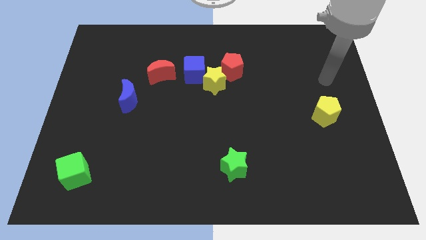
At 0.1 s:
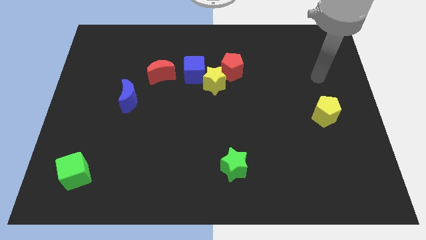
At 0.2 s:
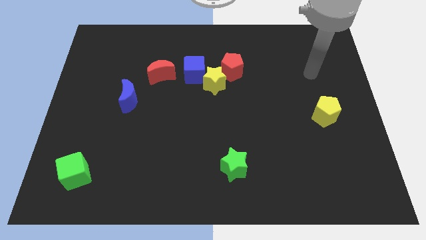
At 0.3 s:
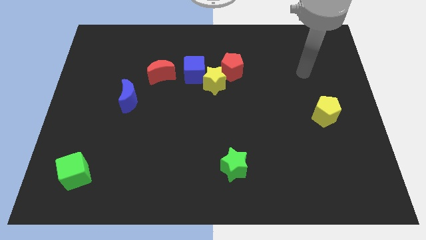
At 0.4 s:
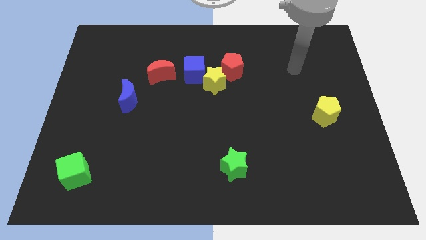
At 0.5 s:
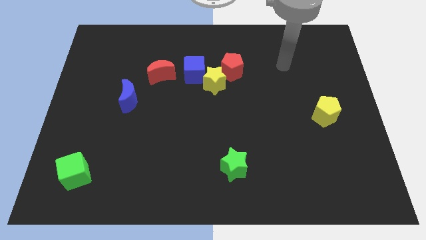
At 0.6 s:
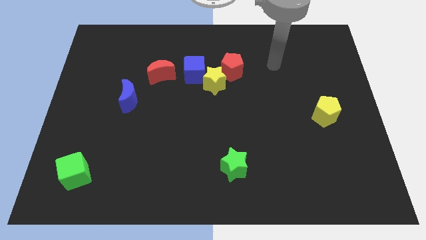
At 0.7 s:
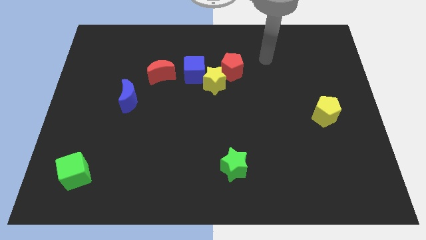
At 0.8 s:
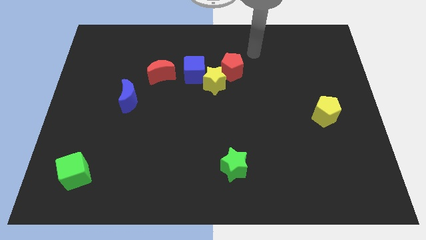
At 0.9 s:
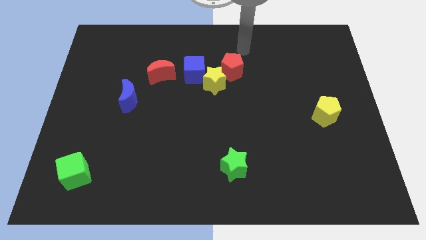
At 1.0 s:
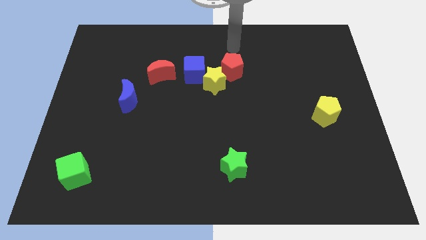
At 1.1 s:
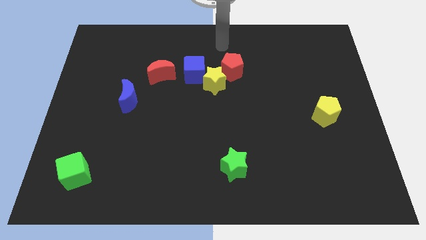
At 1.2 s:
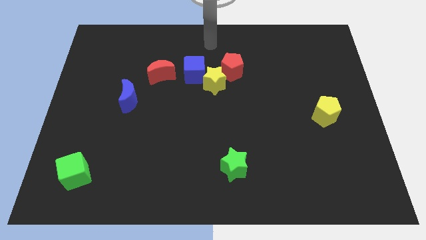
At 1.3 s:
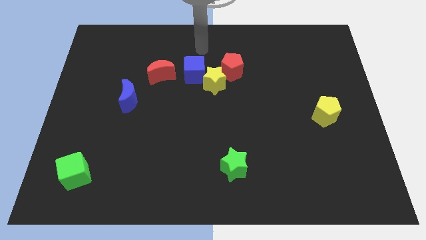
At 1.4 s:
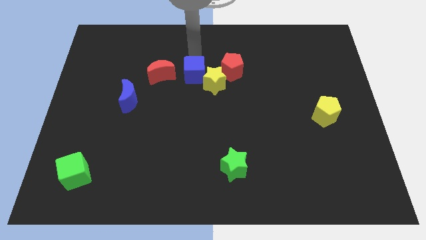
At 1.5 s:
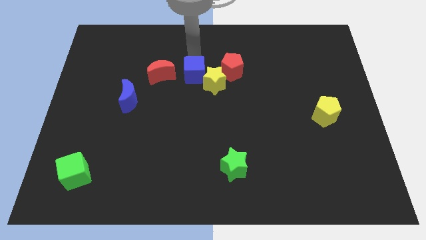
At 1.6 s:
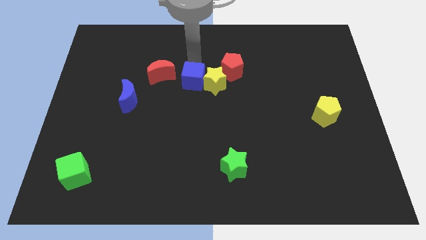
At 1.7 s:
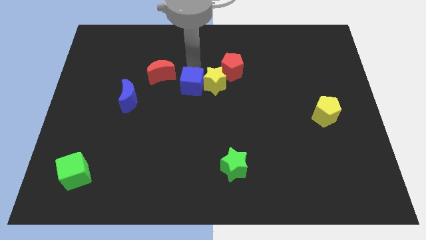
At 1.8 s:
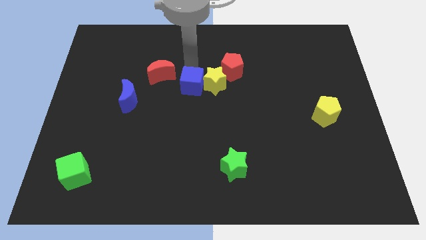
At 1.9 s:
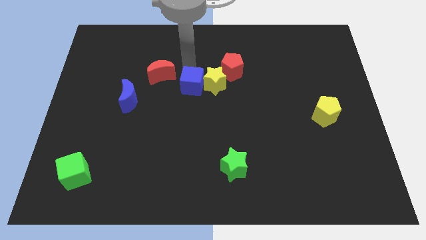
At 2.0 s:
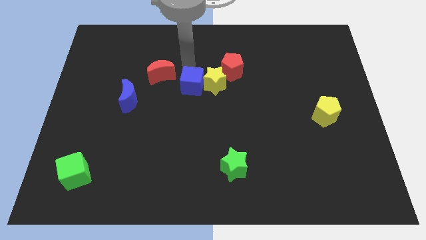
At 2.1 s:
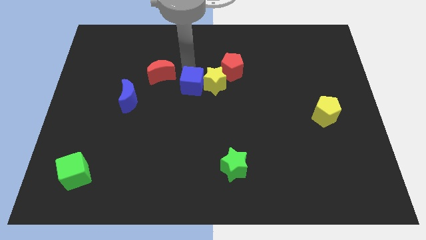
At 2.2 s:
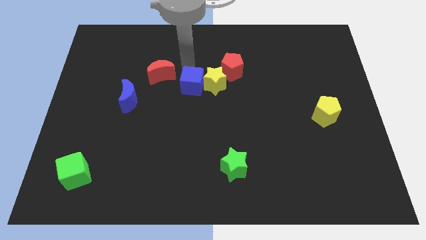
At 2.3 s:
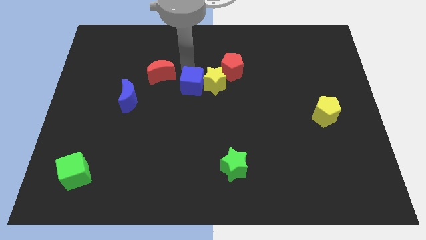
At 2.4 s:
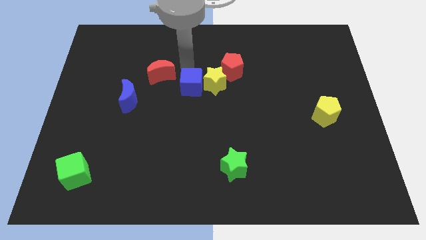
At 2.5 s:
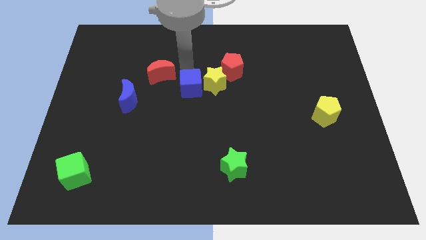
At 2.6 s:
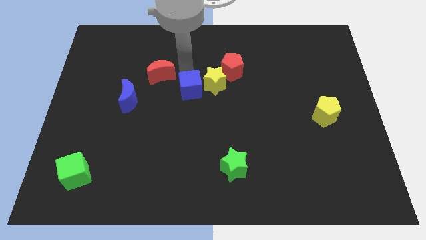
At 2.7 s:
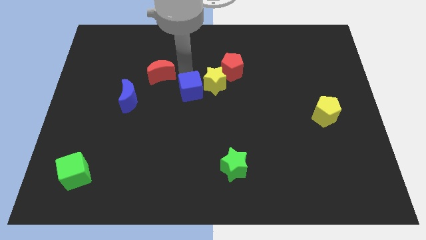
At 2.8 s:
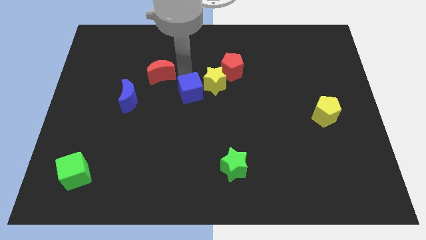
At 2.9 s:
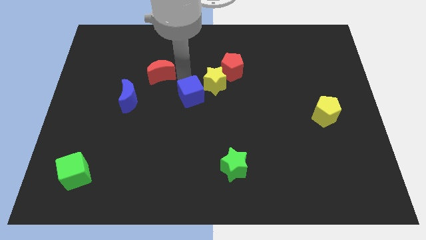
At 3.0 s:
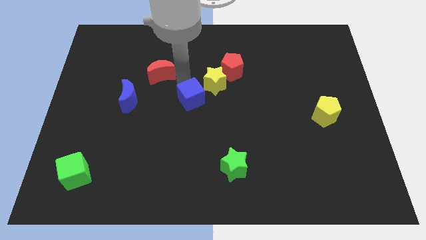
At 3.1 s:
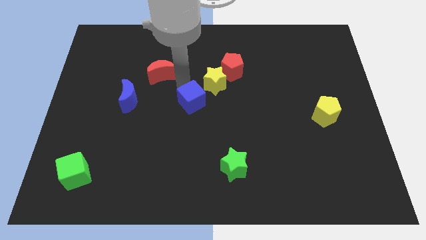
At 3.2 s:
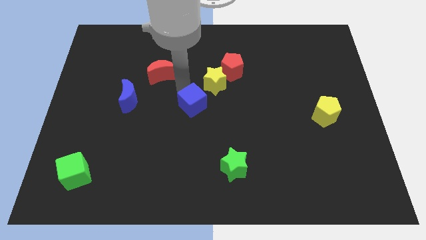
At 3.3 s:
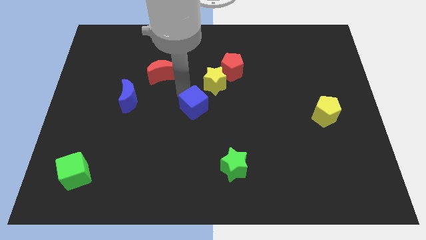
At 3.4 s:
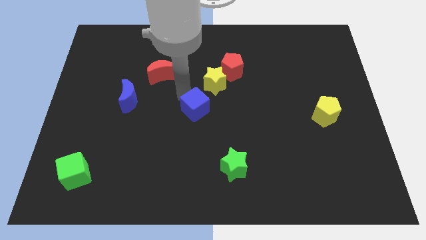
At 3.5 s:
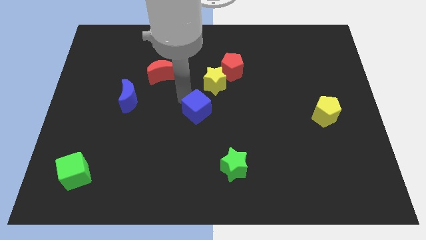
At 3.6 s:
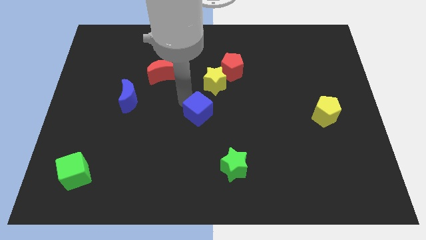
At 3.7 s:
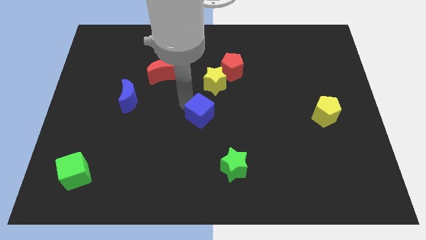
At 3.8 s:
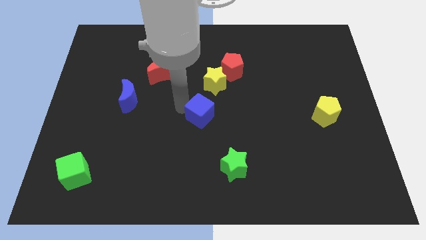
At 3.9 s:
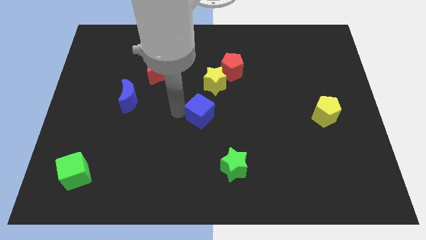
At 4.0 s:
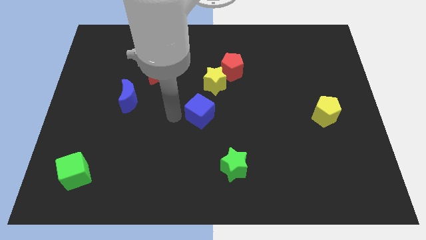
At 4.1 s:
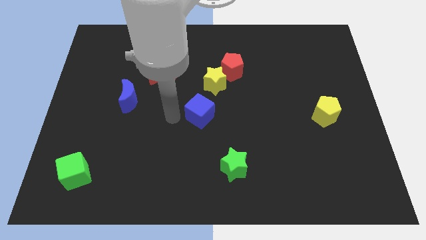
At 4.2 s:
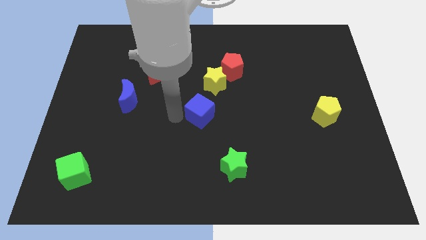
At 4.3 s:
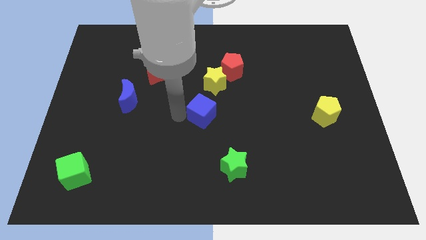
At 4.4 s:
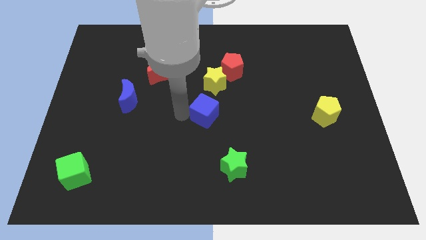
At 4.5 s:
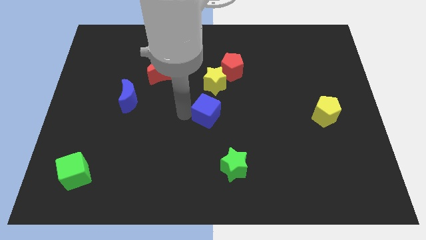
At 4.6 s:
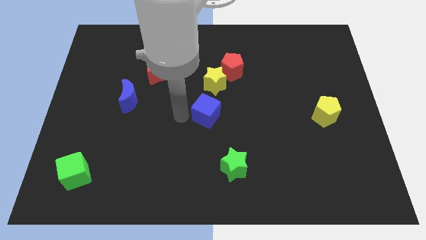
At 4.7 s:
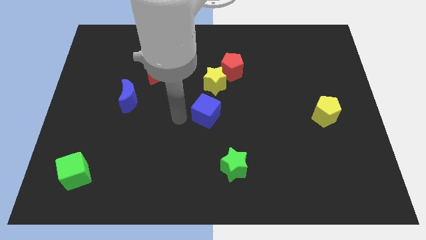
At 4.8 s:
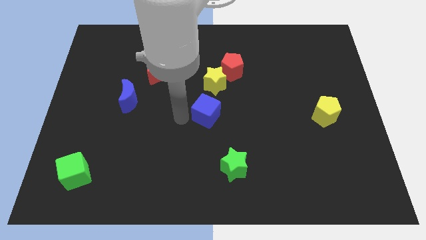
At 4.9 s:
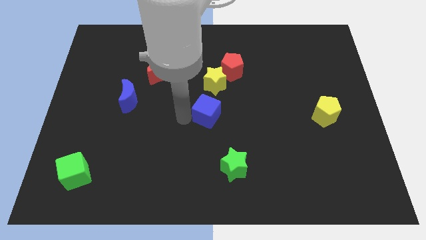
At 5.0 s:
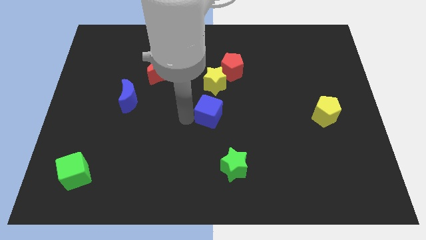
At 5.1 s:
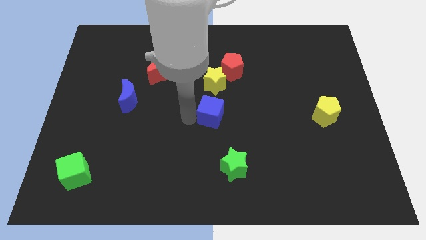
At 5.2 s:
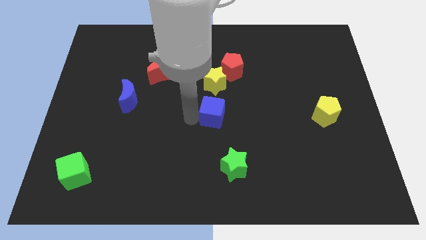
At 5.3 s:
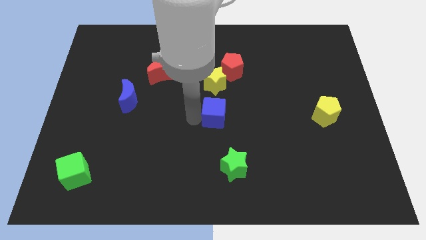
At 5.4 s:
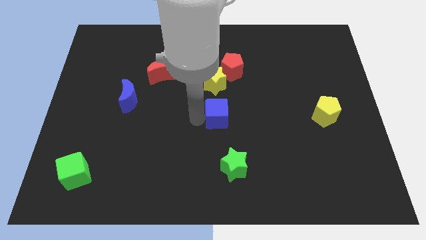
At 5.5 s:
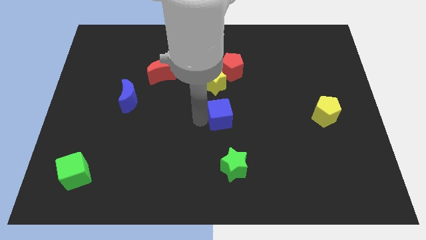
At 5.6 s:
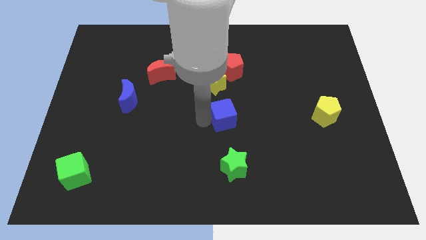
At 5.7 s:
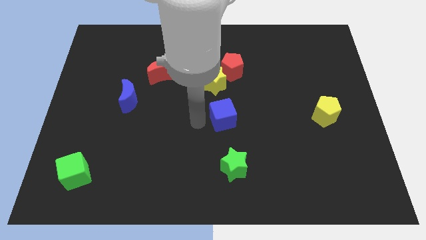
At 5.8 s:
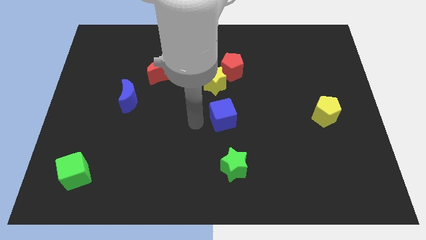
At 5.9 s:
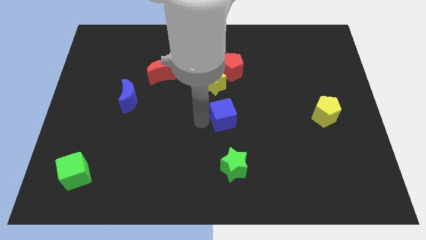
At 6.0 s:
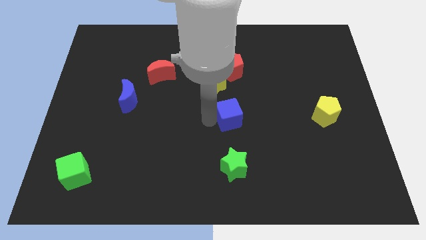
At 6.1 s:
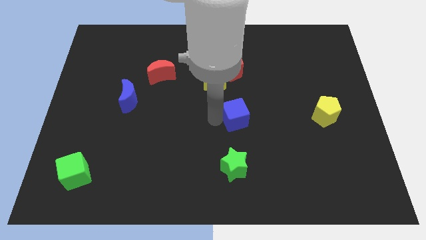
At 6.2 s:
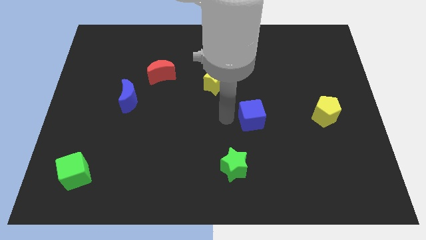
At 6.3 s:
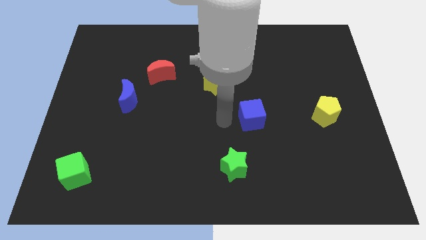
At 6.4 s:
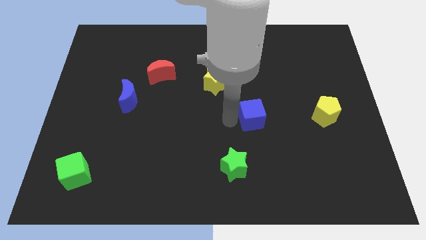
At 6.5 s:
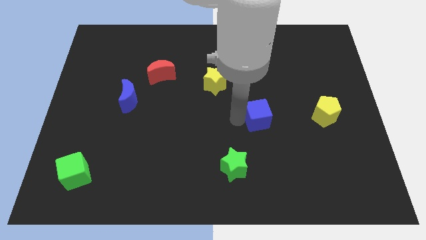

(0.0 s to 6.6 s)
put the blue cube to the left of the yellow pentagon

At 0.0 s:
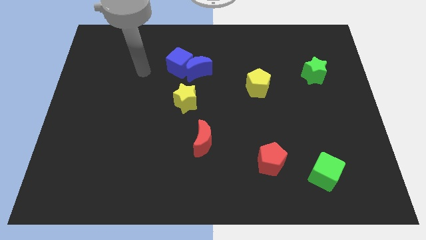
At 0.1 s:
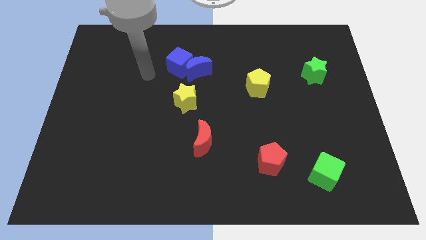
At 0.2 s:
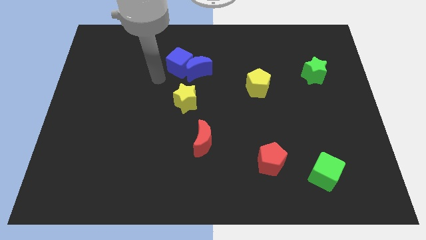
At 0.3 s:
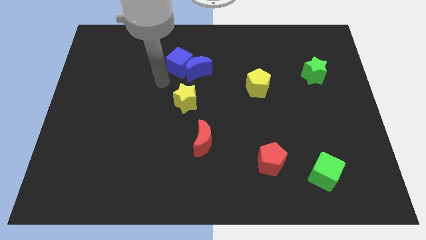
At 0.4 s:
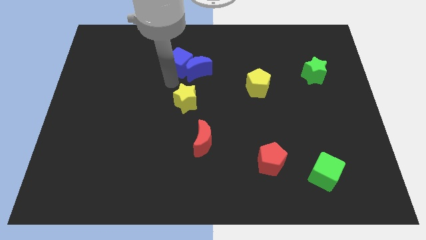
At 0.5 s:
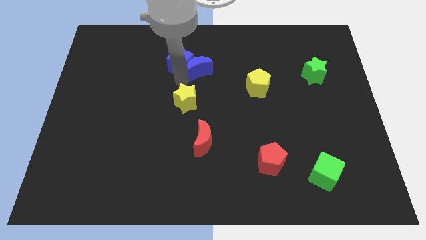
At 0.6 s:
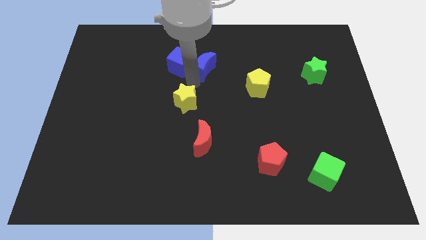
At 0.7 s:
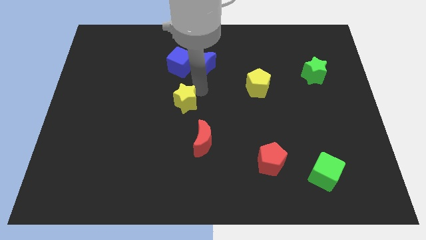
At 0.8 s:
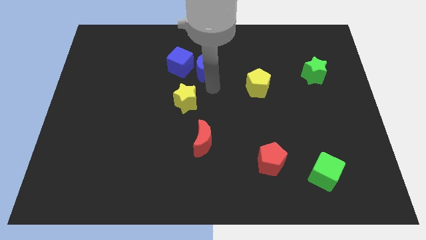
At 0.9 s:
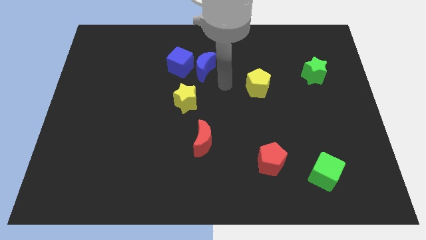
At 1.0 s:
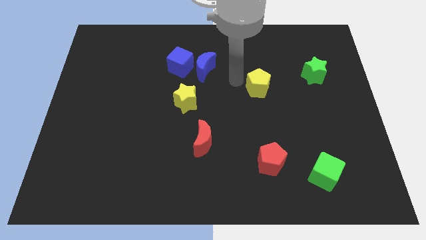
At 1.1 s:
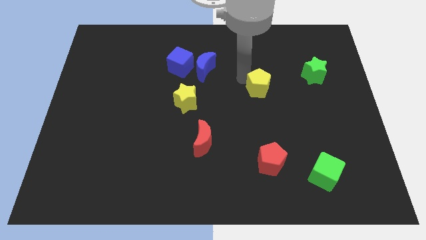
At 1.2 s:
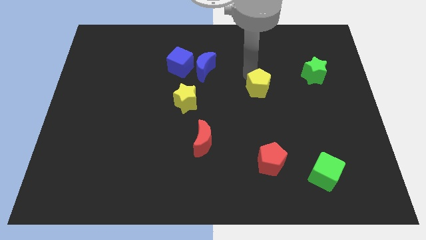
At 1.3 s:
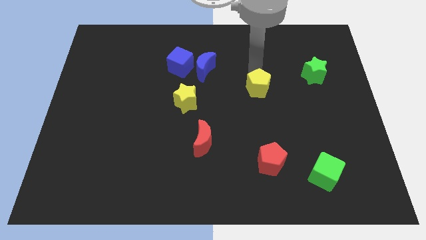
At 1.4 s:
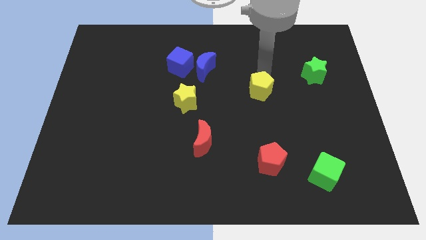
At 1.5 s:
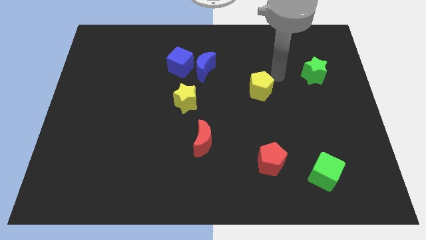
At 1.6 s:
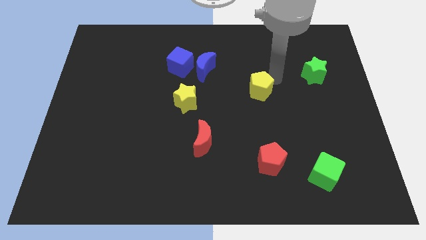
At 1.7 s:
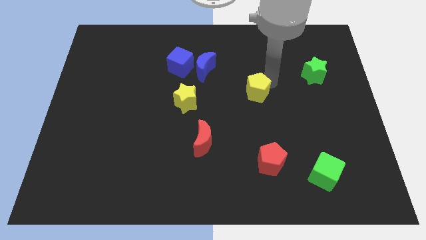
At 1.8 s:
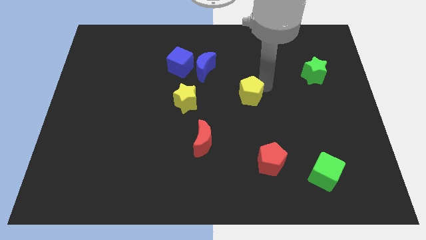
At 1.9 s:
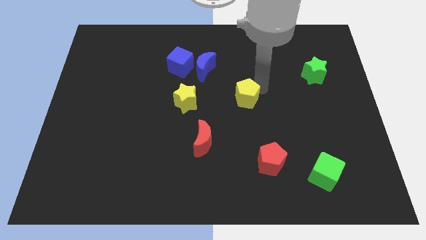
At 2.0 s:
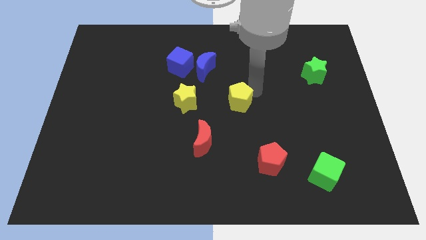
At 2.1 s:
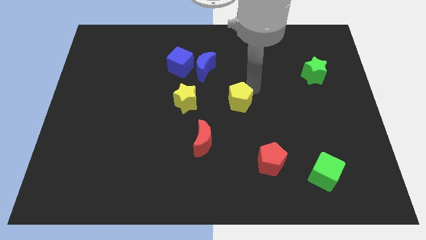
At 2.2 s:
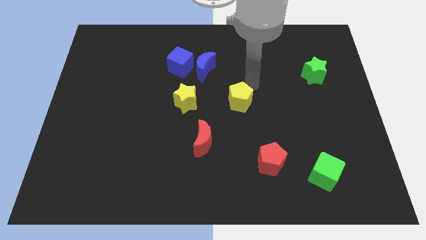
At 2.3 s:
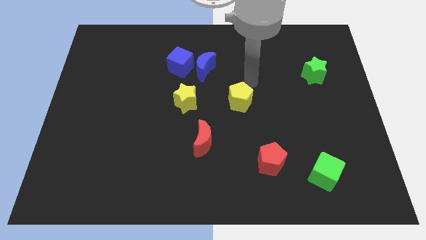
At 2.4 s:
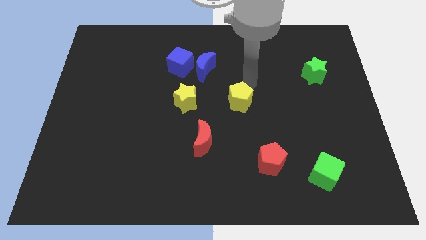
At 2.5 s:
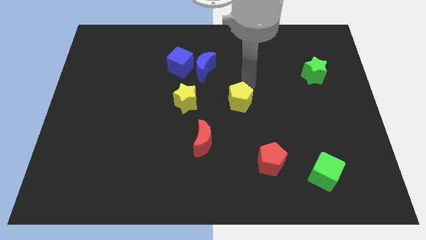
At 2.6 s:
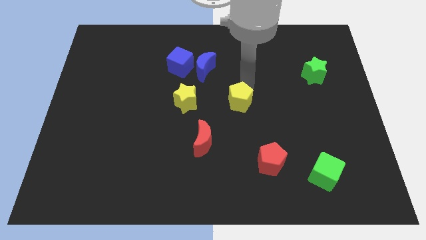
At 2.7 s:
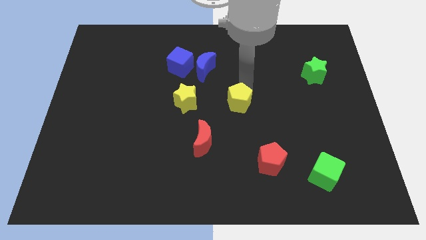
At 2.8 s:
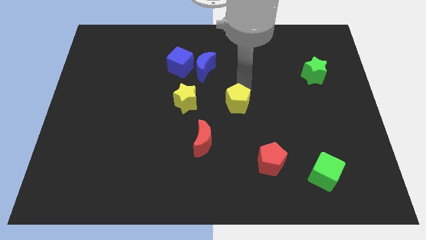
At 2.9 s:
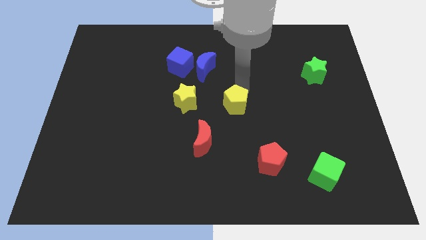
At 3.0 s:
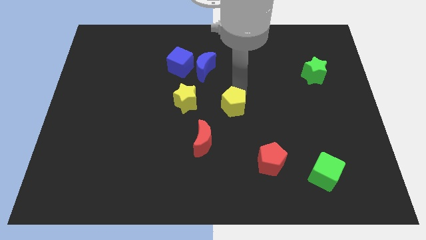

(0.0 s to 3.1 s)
slide the yellow pentagon to the top right side of the red moon
